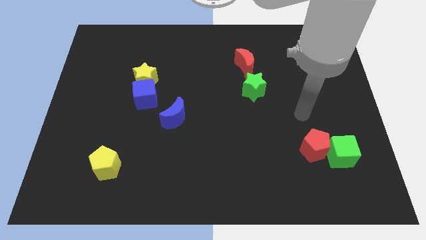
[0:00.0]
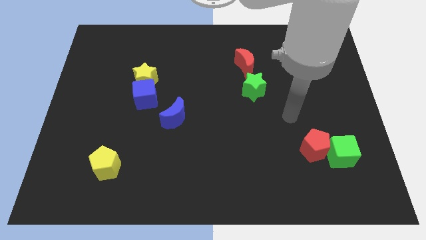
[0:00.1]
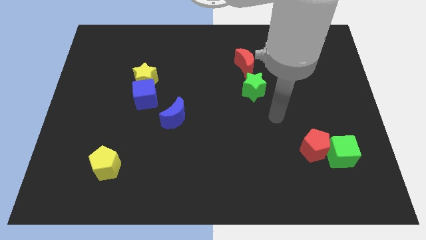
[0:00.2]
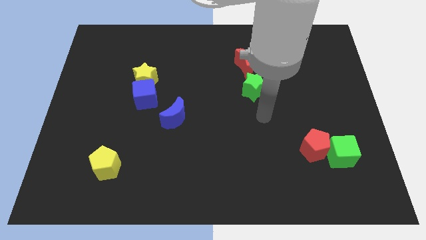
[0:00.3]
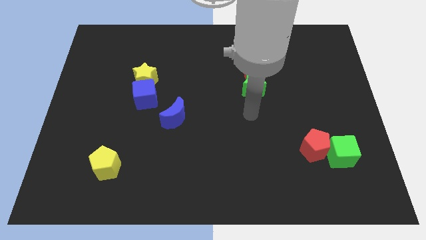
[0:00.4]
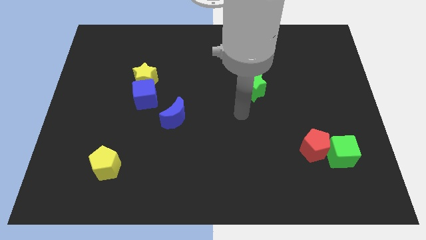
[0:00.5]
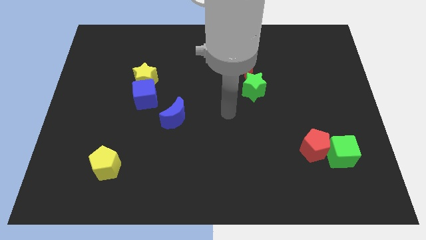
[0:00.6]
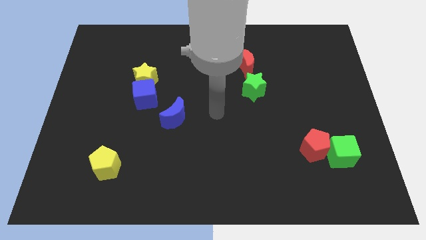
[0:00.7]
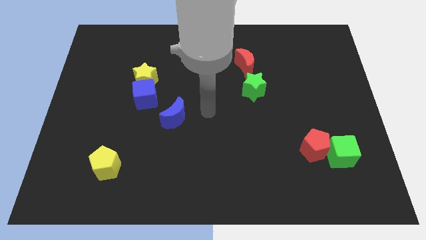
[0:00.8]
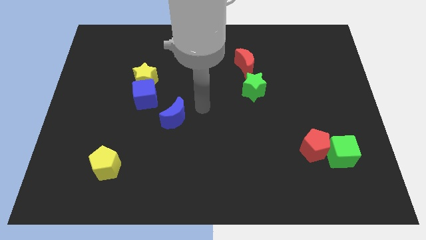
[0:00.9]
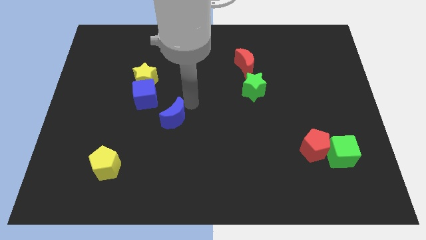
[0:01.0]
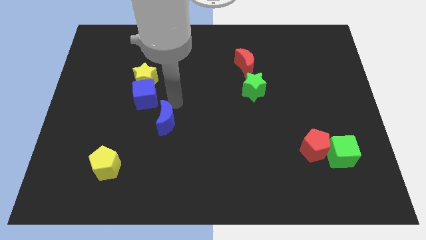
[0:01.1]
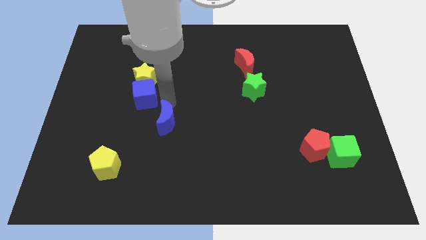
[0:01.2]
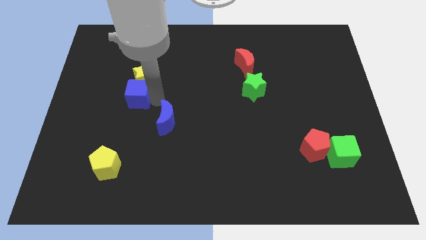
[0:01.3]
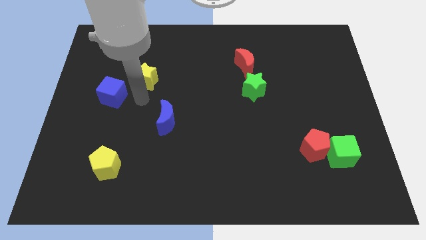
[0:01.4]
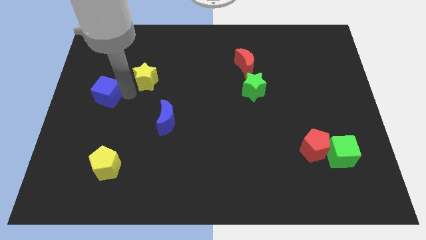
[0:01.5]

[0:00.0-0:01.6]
move the yellow star away from the blue cube

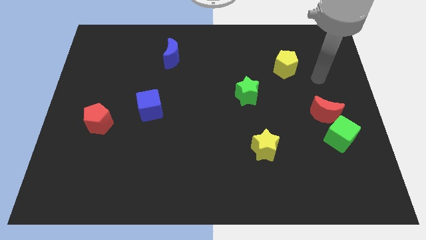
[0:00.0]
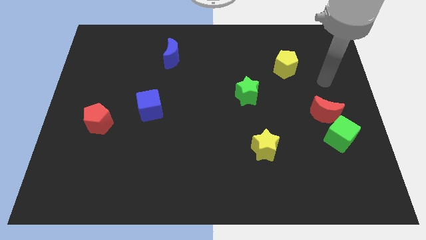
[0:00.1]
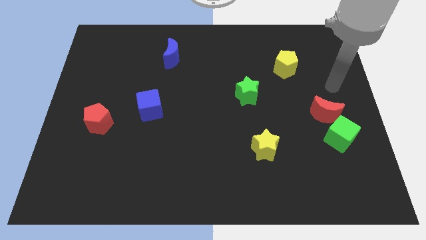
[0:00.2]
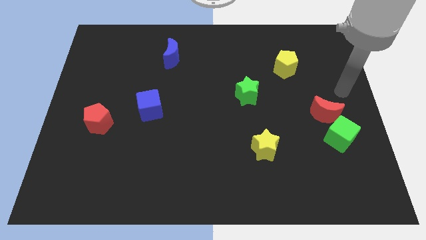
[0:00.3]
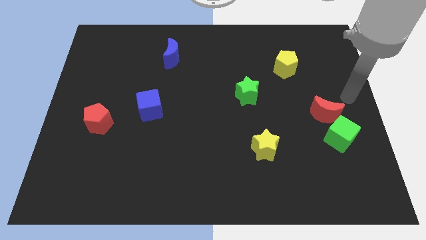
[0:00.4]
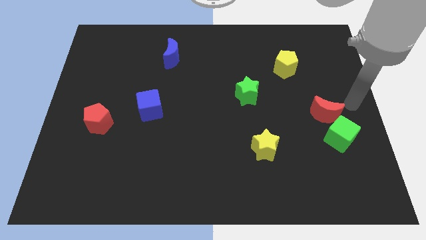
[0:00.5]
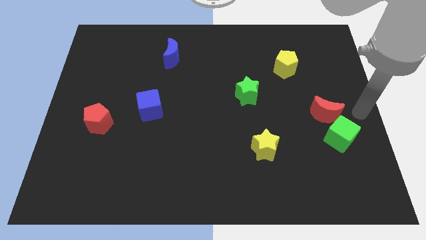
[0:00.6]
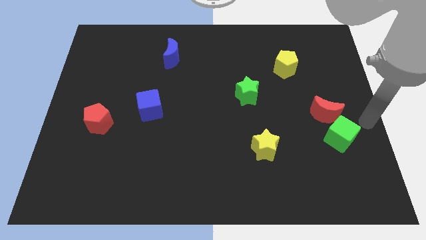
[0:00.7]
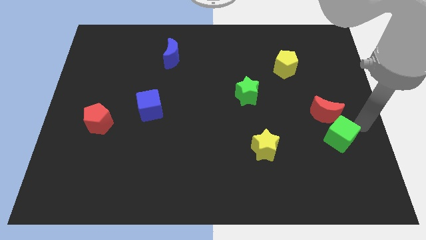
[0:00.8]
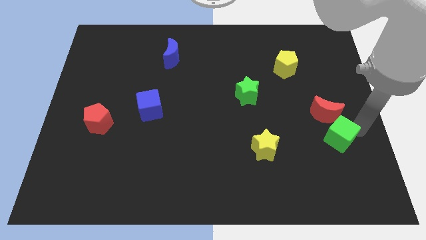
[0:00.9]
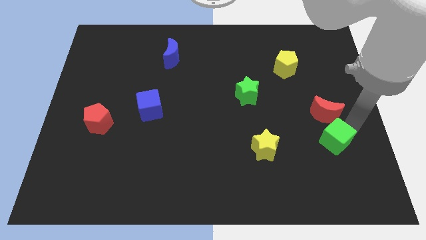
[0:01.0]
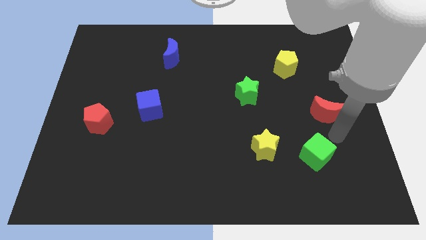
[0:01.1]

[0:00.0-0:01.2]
move the red moon away from the green cube

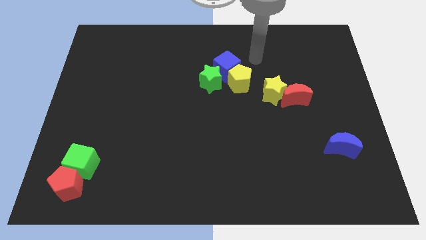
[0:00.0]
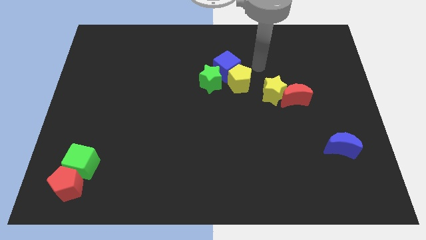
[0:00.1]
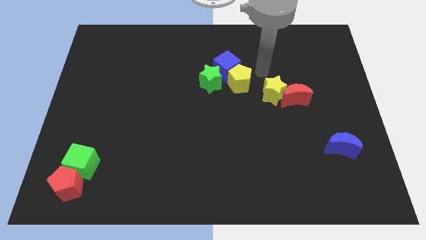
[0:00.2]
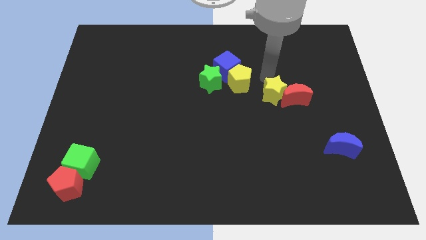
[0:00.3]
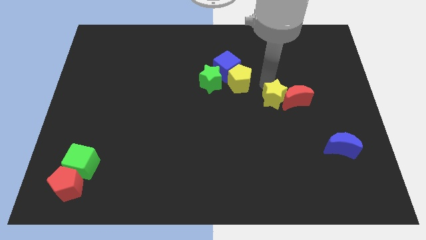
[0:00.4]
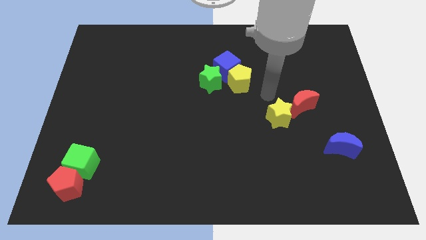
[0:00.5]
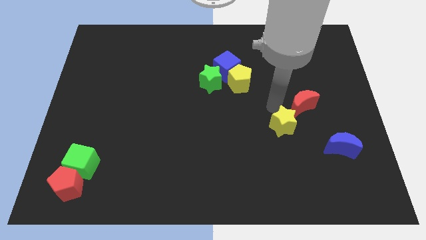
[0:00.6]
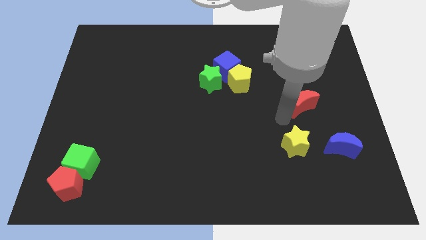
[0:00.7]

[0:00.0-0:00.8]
separate the red moon from the yellow star

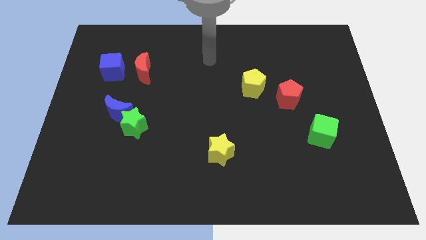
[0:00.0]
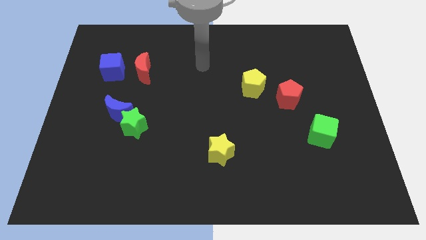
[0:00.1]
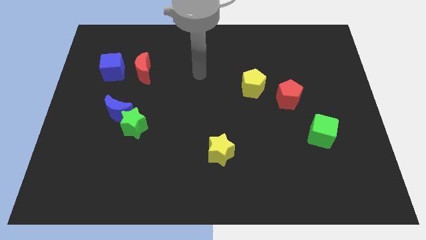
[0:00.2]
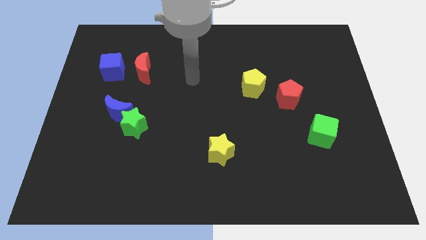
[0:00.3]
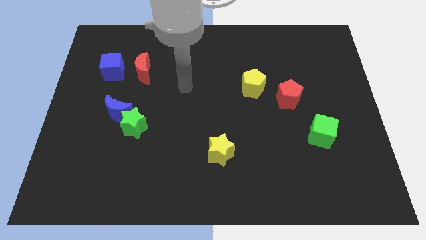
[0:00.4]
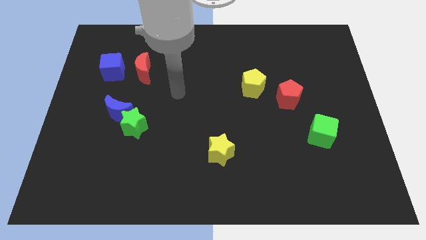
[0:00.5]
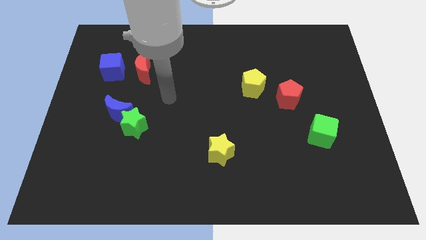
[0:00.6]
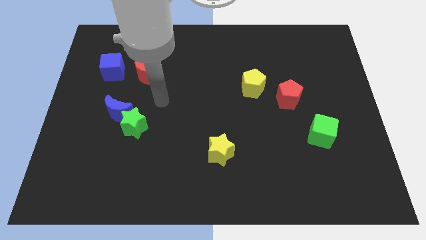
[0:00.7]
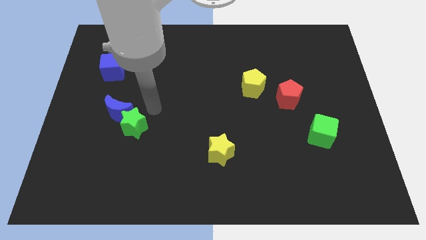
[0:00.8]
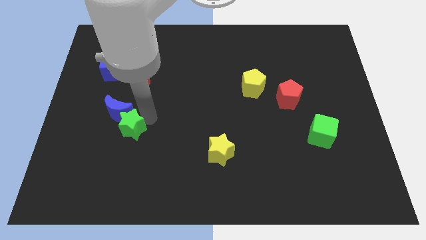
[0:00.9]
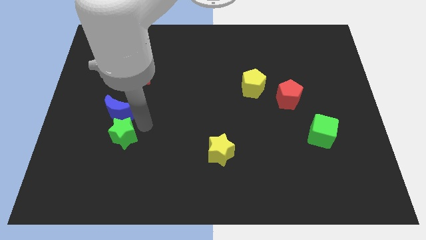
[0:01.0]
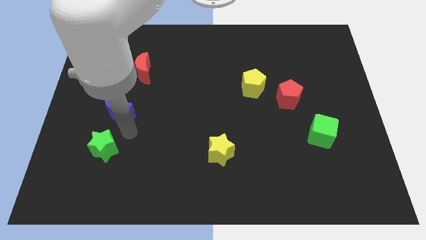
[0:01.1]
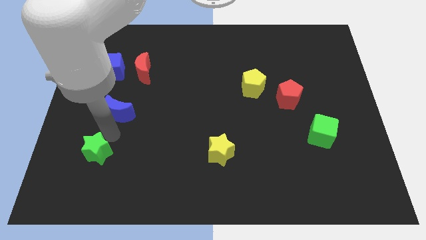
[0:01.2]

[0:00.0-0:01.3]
move the blue moon away from the green star

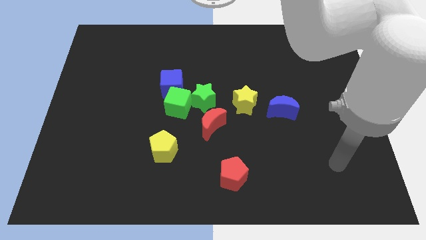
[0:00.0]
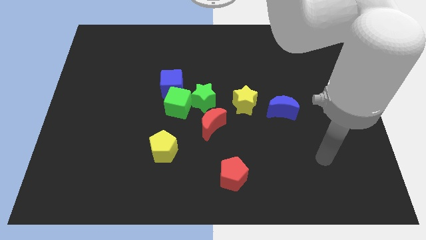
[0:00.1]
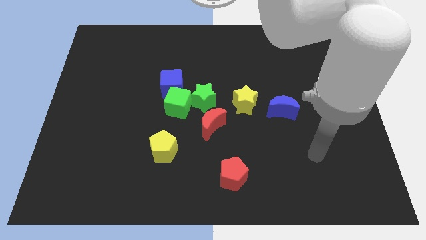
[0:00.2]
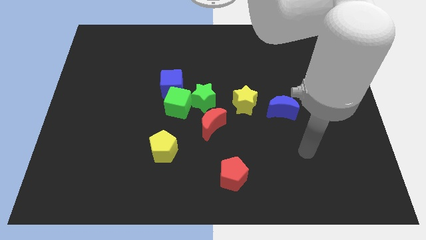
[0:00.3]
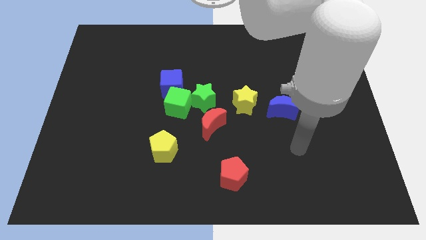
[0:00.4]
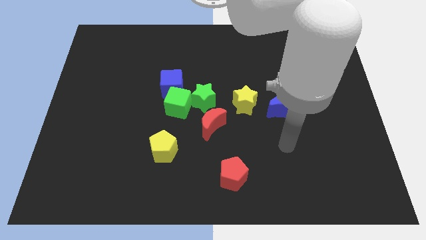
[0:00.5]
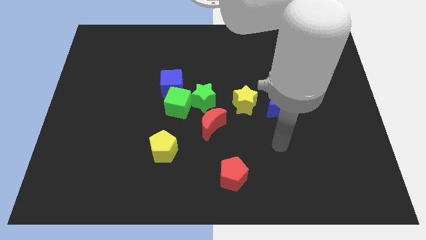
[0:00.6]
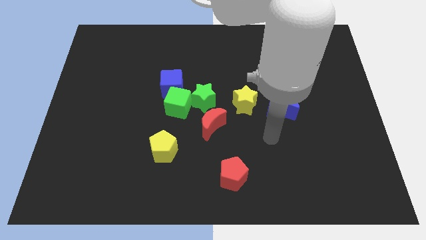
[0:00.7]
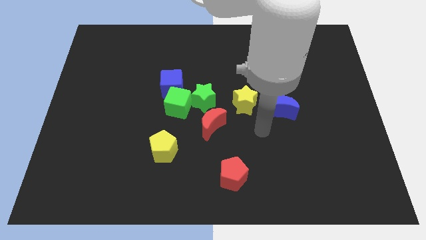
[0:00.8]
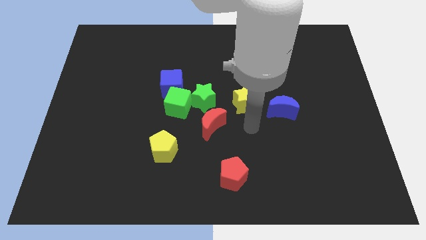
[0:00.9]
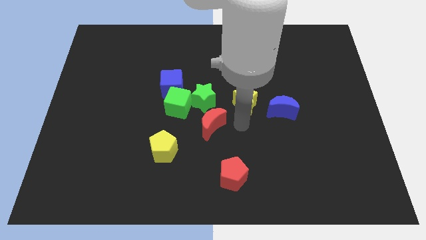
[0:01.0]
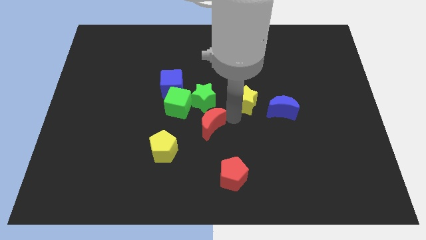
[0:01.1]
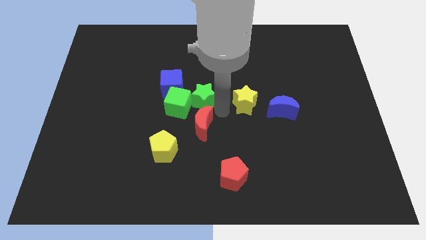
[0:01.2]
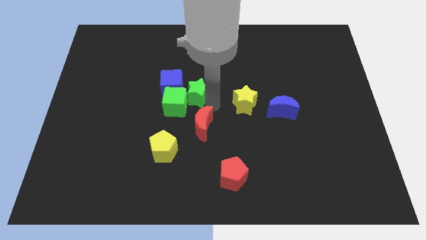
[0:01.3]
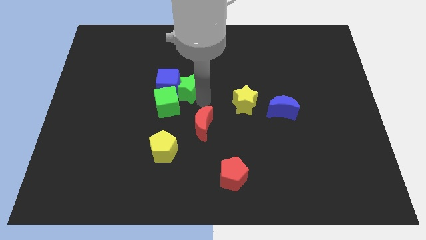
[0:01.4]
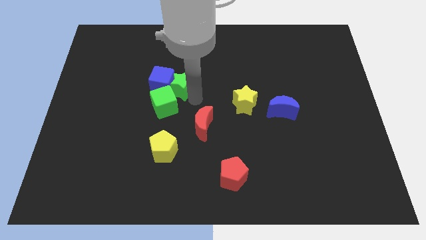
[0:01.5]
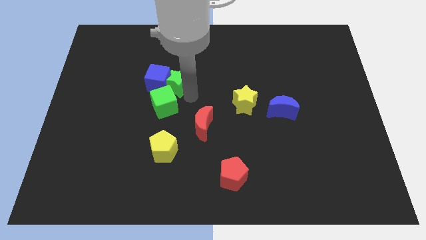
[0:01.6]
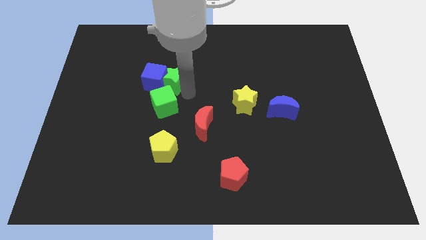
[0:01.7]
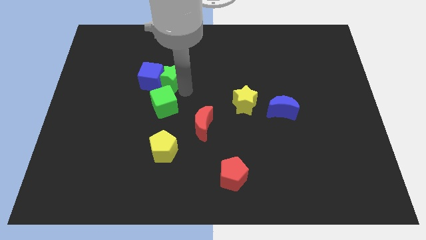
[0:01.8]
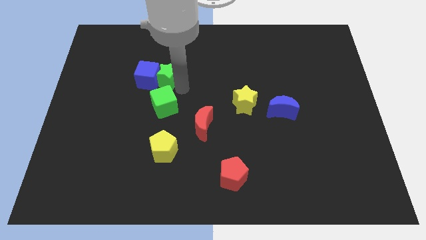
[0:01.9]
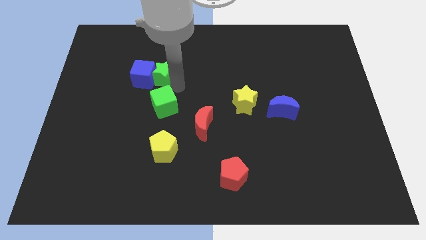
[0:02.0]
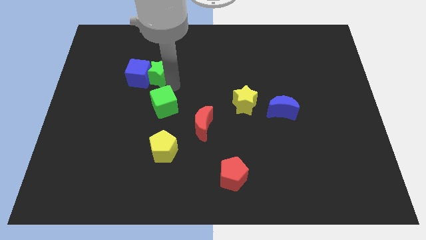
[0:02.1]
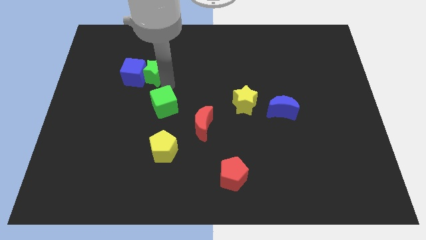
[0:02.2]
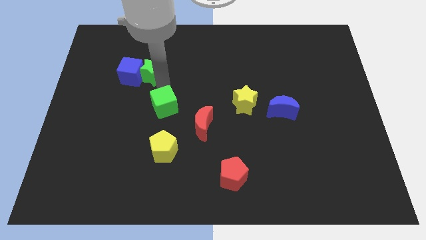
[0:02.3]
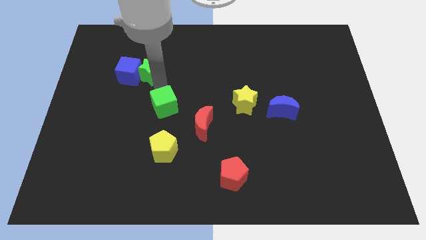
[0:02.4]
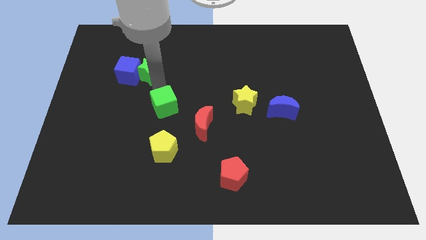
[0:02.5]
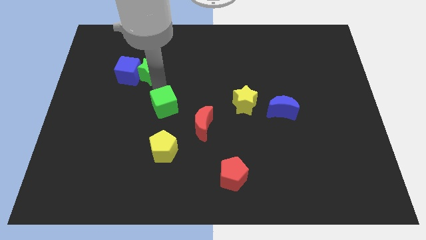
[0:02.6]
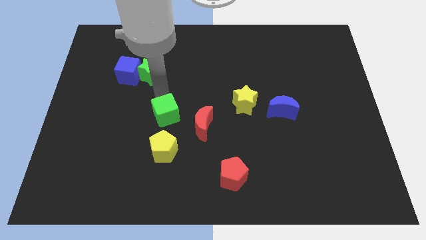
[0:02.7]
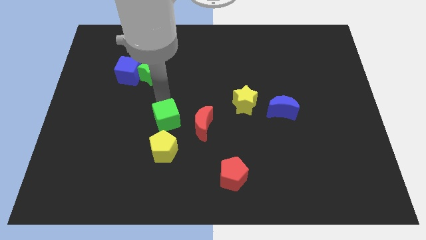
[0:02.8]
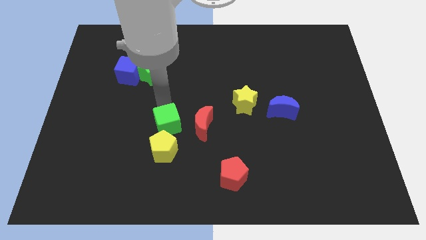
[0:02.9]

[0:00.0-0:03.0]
pull the green cube apart from the clump

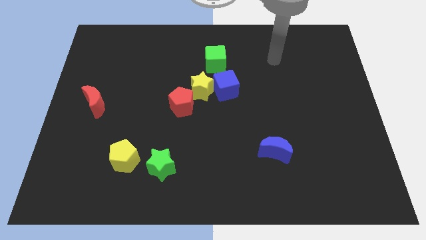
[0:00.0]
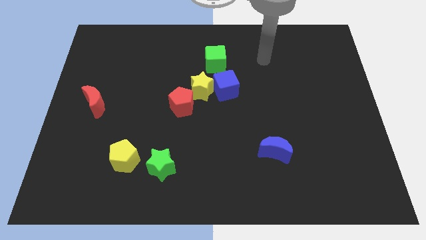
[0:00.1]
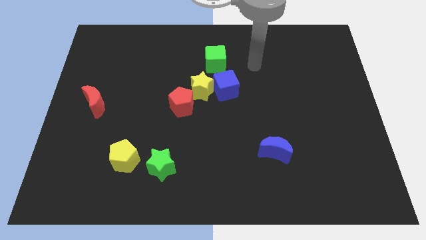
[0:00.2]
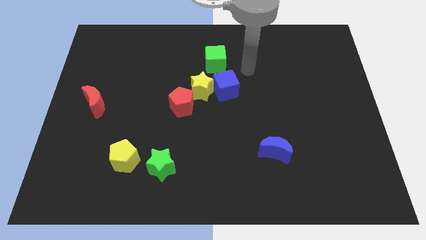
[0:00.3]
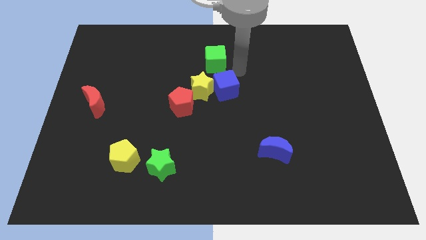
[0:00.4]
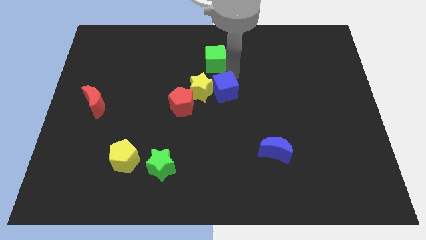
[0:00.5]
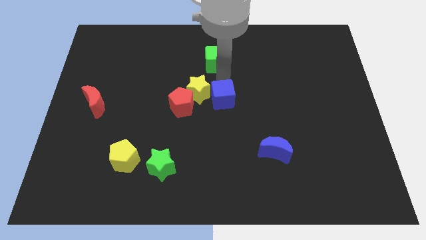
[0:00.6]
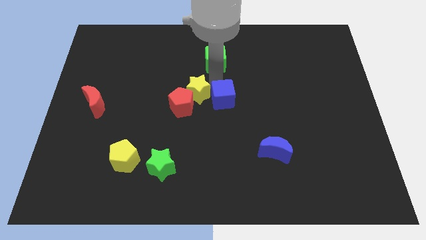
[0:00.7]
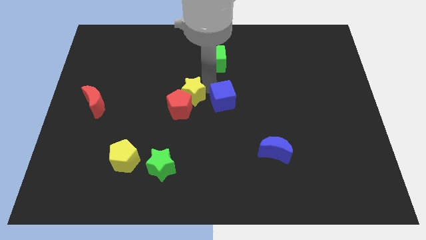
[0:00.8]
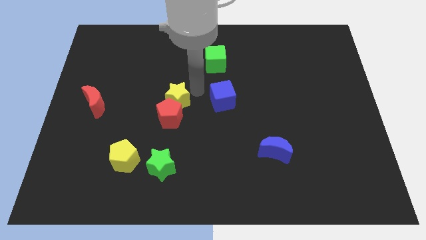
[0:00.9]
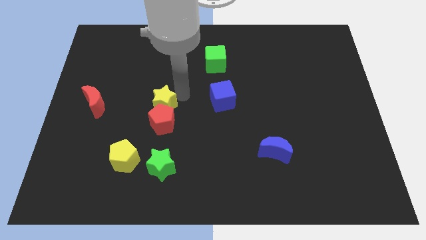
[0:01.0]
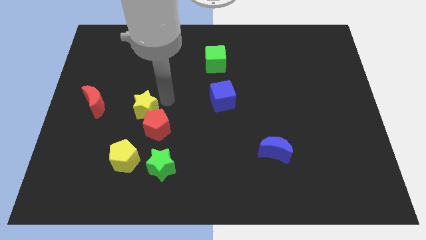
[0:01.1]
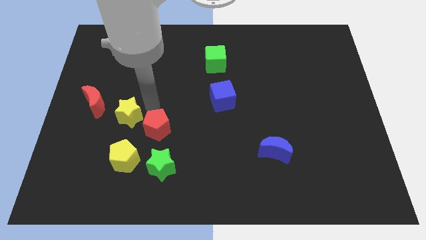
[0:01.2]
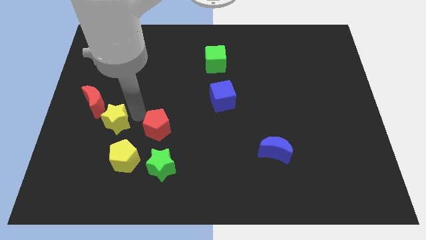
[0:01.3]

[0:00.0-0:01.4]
move the red pentagon away from the yellow star

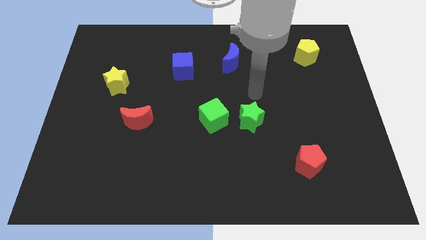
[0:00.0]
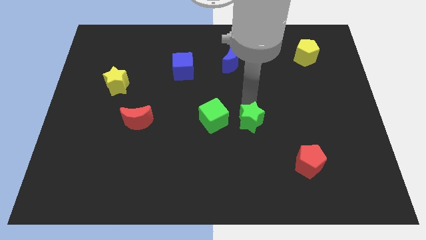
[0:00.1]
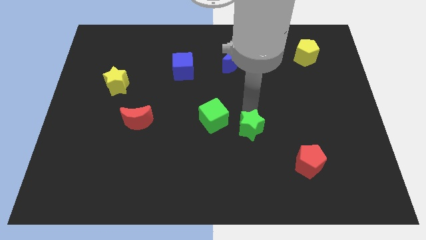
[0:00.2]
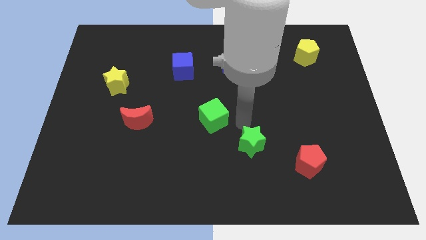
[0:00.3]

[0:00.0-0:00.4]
move the green cube away from the green star
